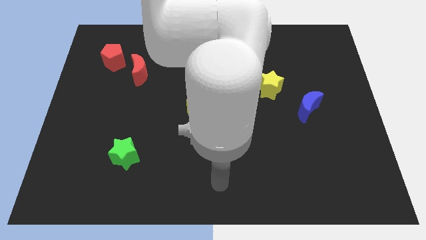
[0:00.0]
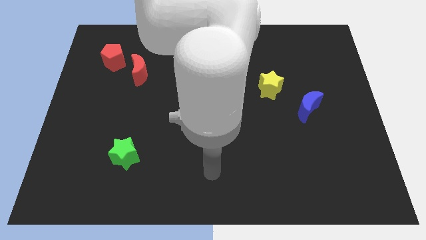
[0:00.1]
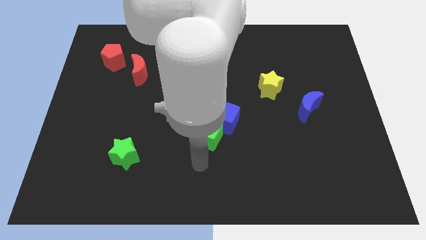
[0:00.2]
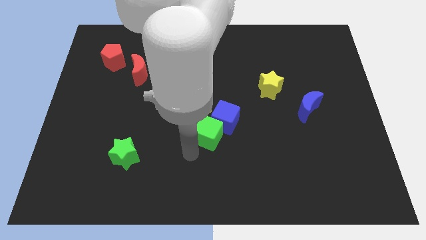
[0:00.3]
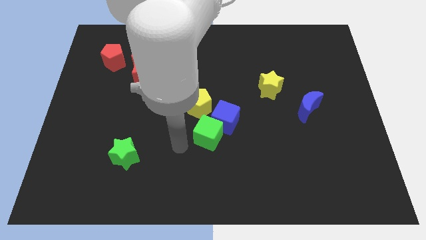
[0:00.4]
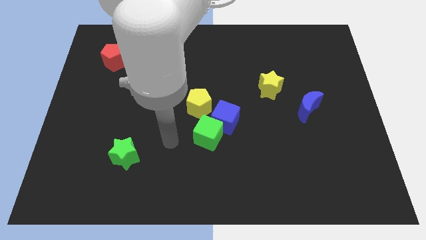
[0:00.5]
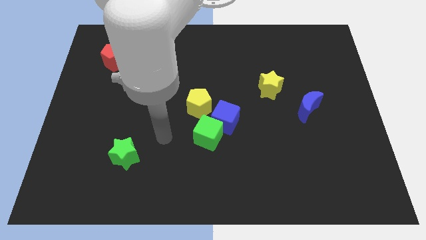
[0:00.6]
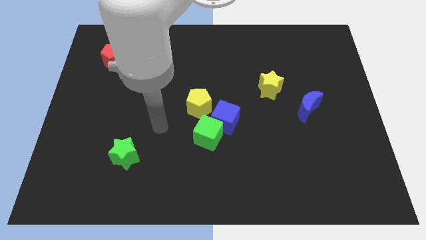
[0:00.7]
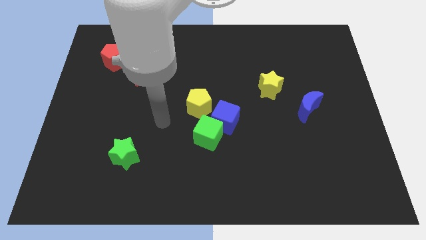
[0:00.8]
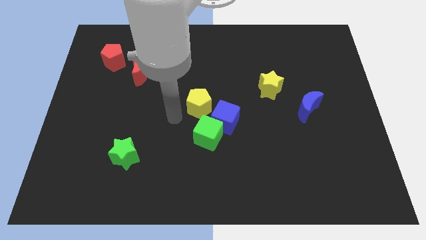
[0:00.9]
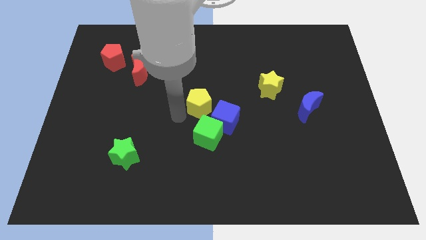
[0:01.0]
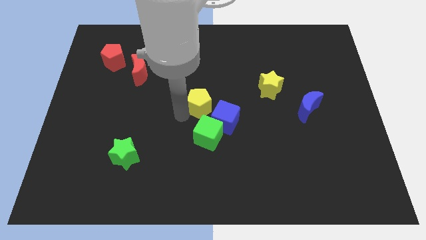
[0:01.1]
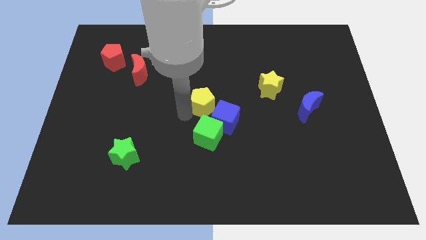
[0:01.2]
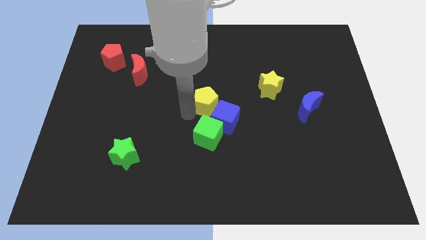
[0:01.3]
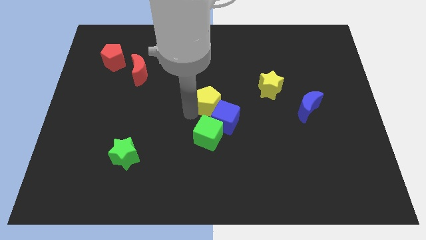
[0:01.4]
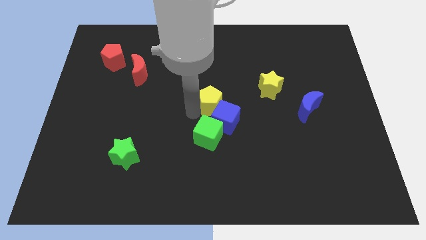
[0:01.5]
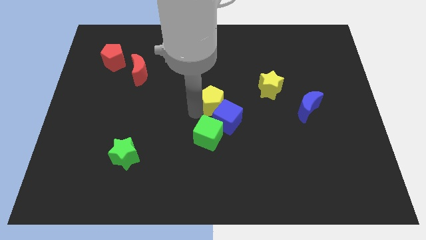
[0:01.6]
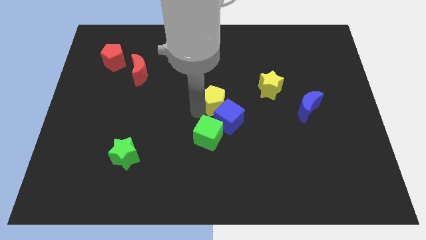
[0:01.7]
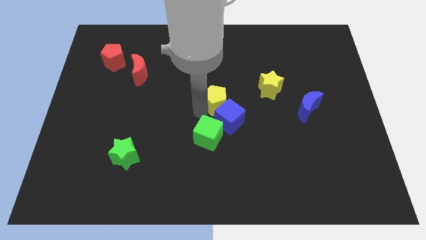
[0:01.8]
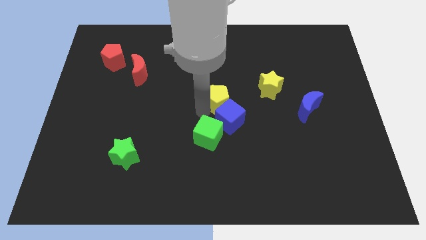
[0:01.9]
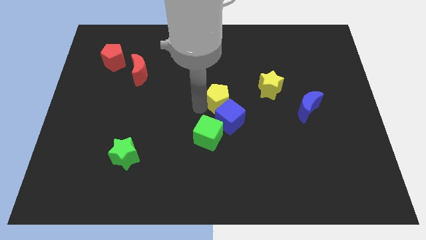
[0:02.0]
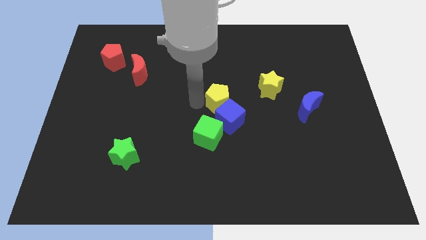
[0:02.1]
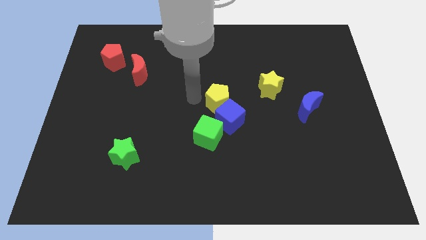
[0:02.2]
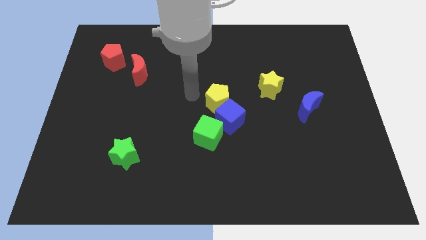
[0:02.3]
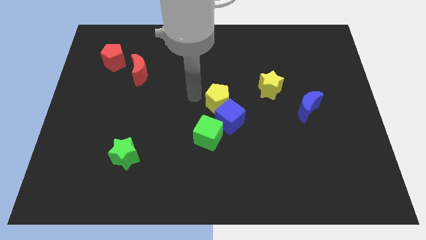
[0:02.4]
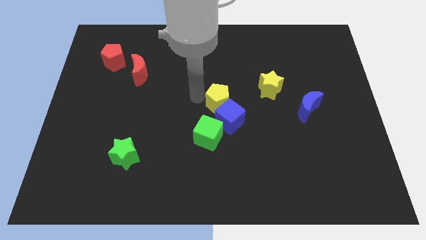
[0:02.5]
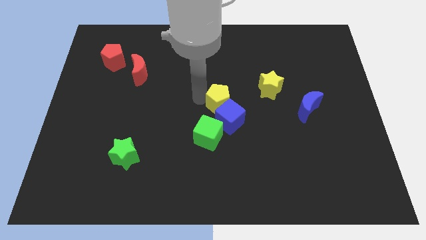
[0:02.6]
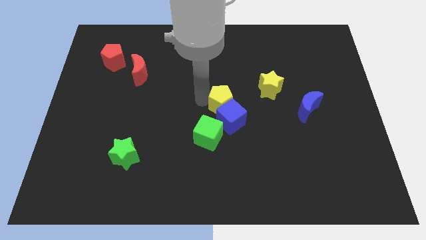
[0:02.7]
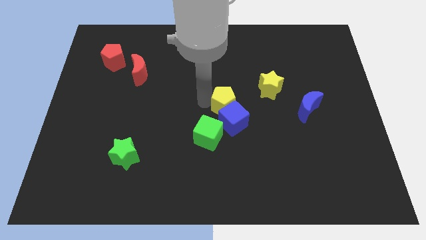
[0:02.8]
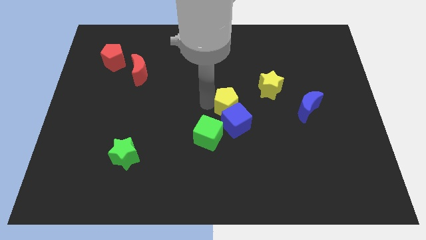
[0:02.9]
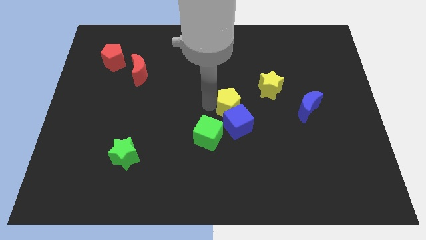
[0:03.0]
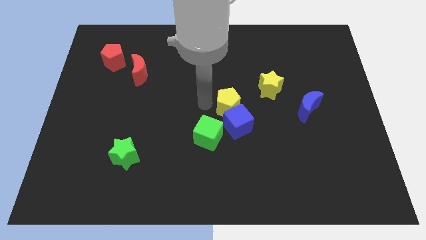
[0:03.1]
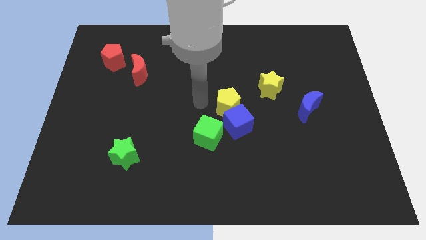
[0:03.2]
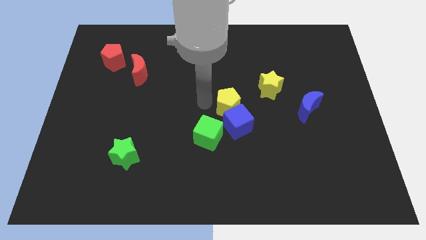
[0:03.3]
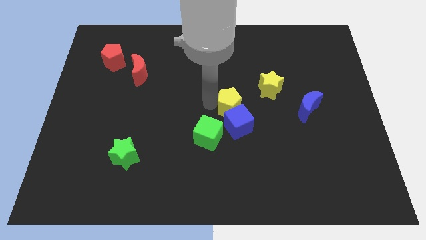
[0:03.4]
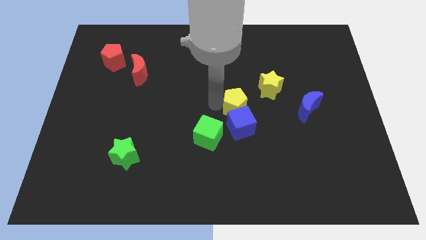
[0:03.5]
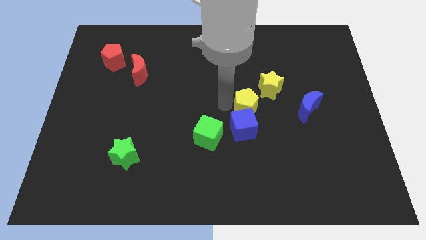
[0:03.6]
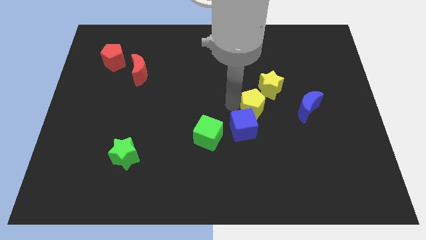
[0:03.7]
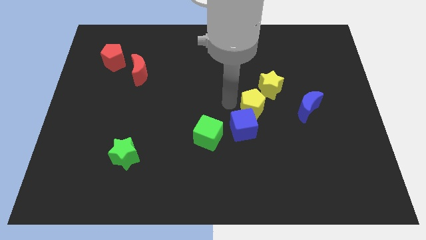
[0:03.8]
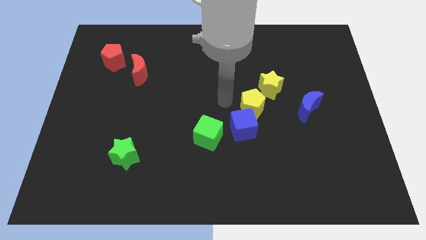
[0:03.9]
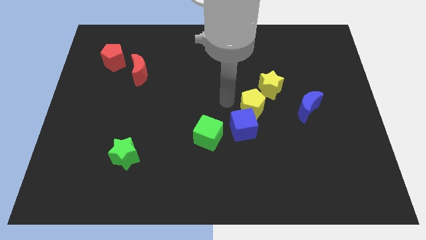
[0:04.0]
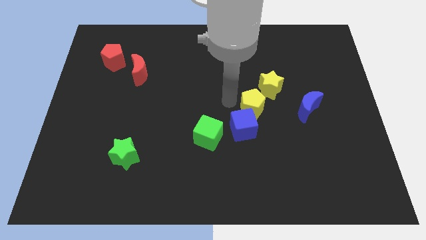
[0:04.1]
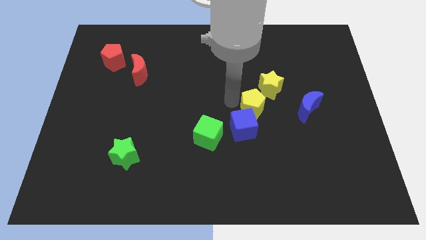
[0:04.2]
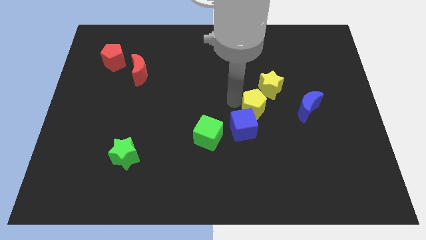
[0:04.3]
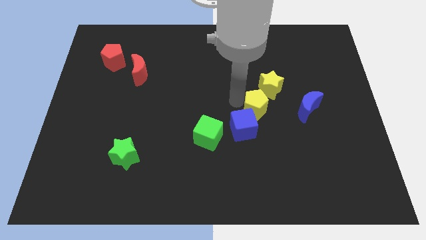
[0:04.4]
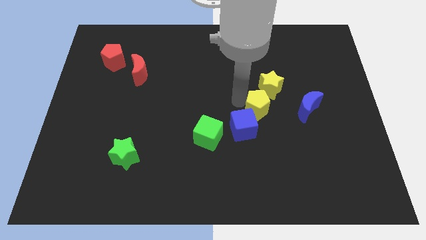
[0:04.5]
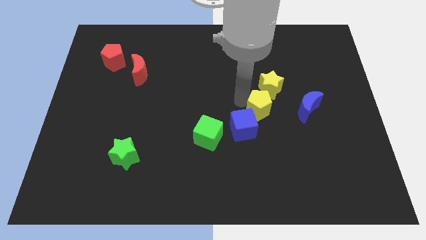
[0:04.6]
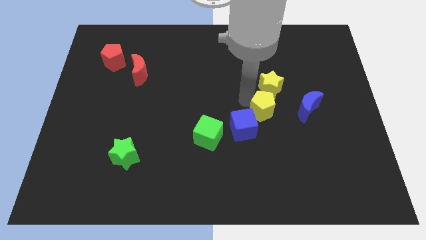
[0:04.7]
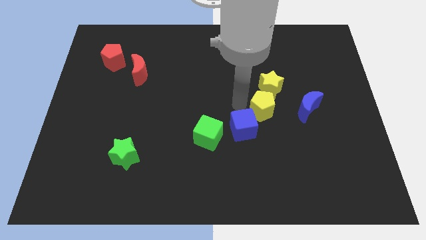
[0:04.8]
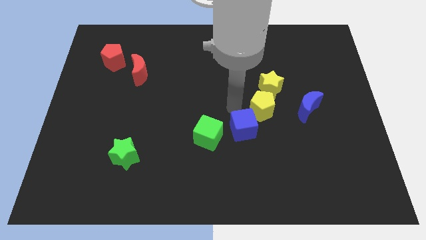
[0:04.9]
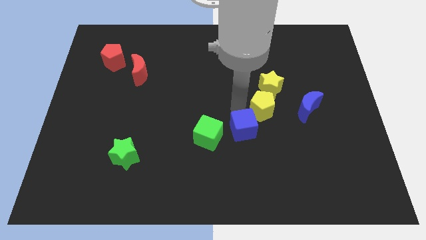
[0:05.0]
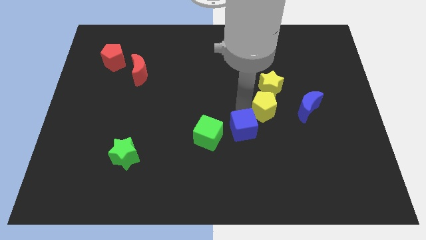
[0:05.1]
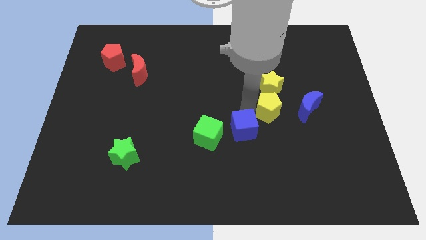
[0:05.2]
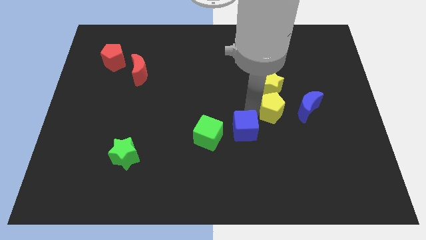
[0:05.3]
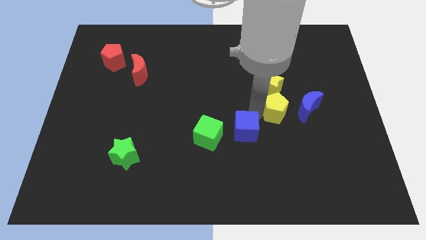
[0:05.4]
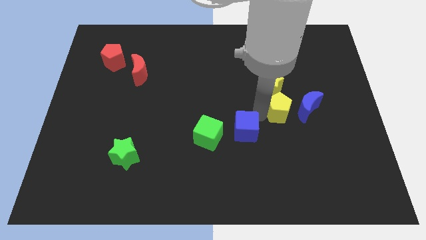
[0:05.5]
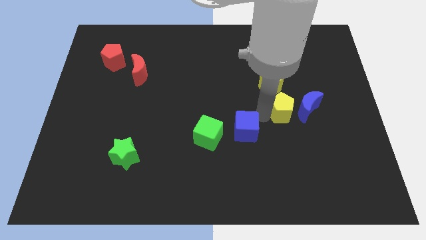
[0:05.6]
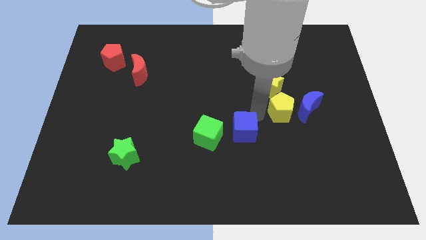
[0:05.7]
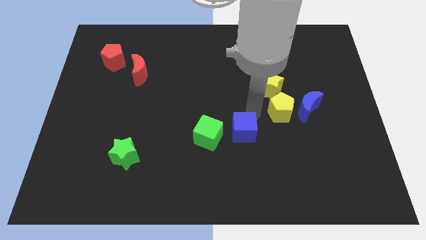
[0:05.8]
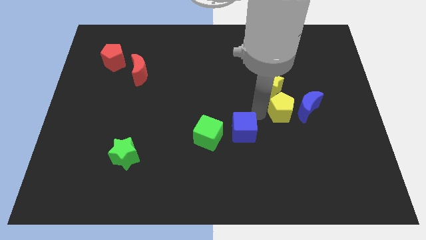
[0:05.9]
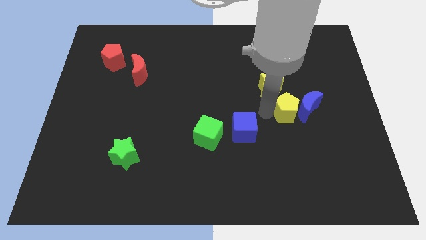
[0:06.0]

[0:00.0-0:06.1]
move the yellow pentagon towards the blue moon

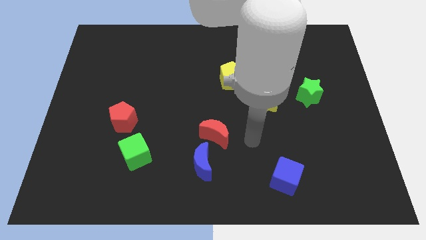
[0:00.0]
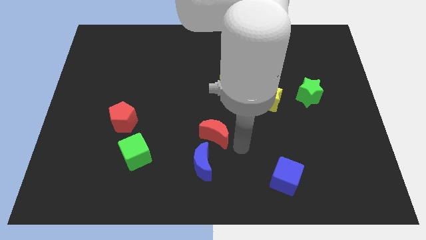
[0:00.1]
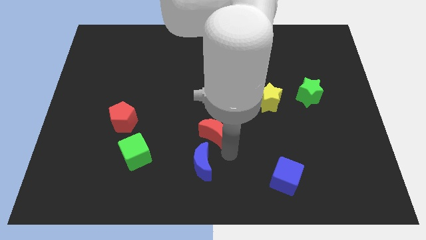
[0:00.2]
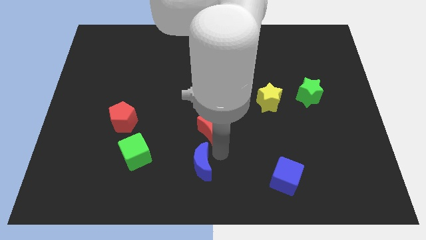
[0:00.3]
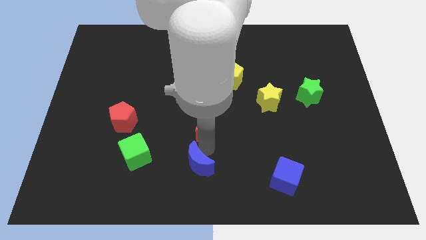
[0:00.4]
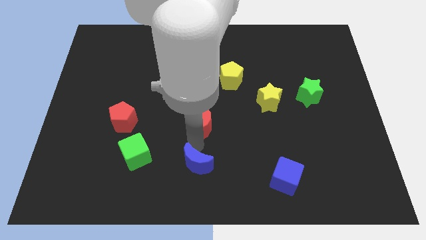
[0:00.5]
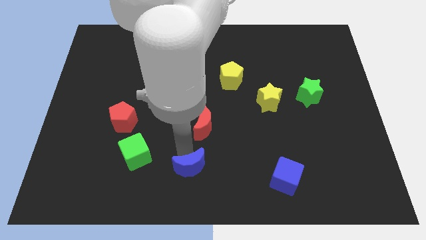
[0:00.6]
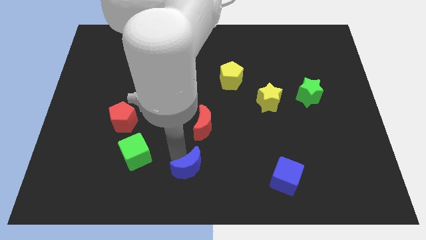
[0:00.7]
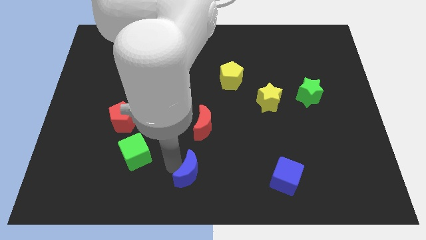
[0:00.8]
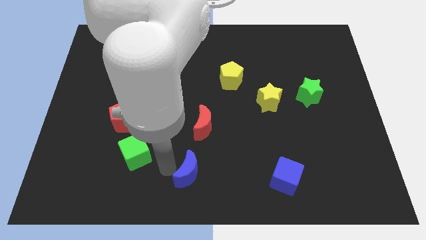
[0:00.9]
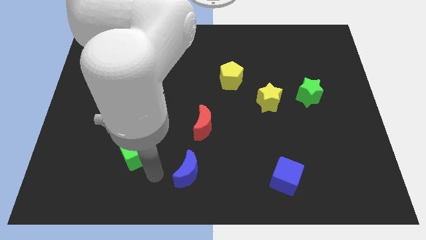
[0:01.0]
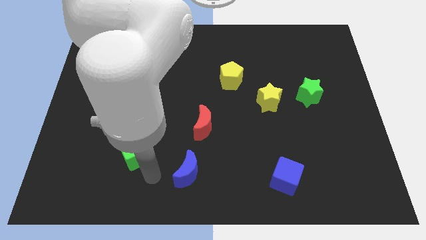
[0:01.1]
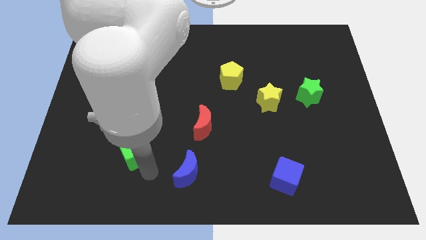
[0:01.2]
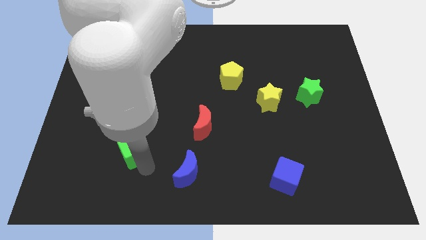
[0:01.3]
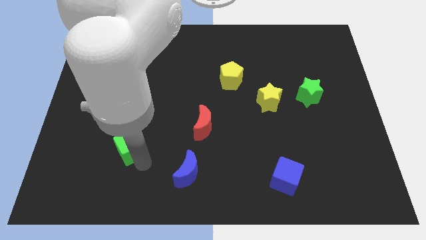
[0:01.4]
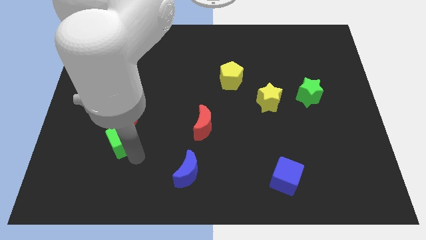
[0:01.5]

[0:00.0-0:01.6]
move the green cube towards the red pentagon
